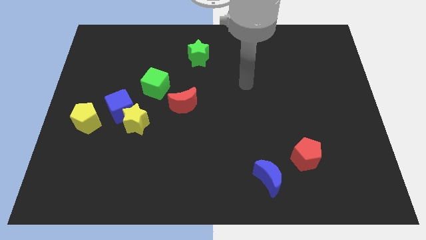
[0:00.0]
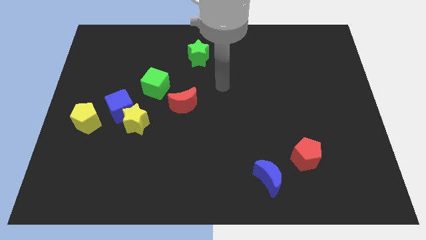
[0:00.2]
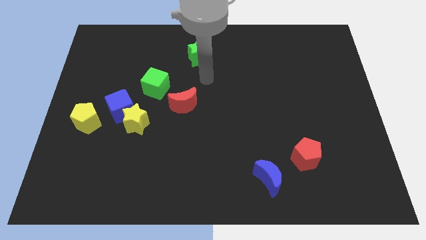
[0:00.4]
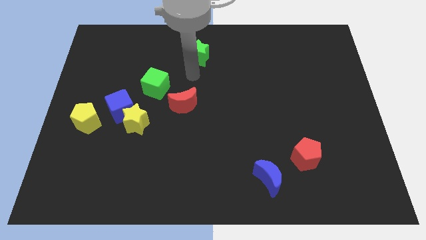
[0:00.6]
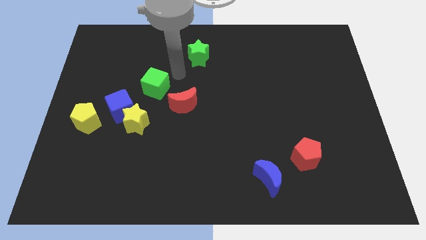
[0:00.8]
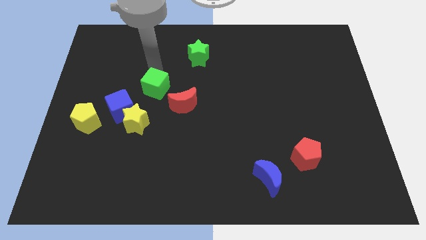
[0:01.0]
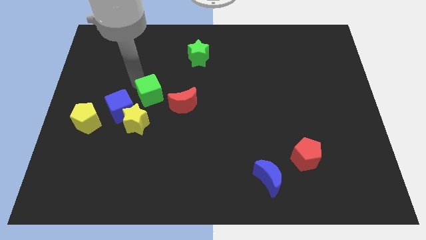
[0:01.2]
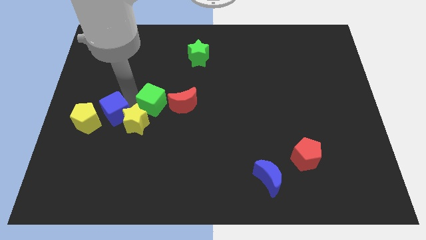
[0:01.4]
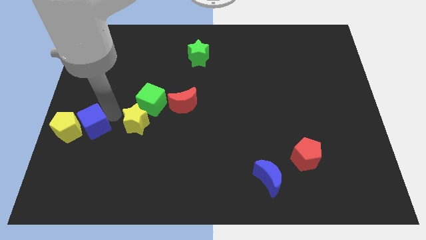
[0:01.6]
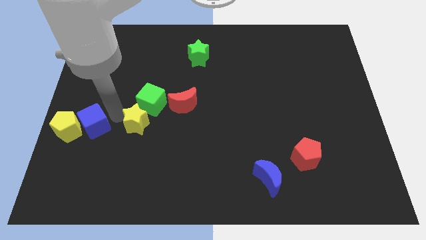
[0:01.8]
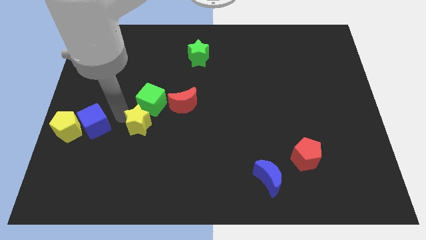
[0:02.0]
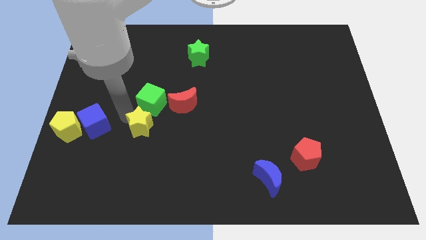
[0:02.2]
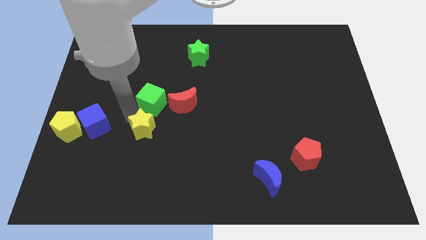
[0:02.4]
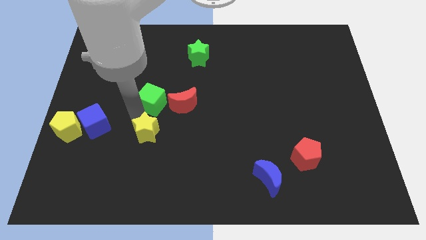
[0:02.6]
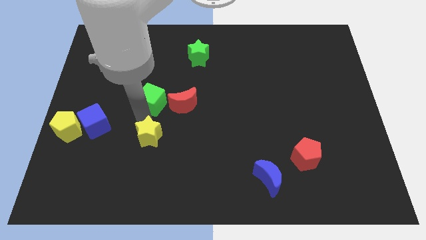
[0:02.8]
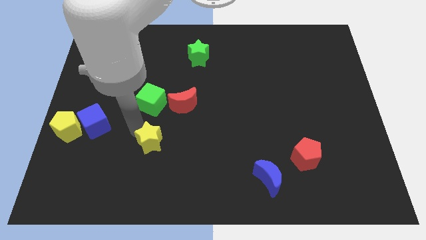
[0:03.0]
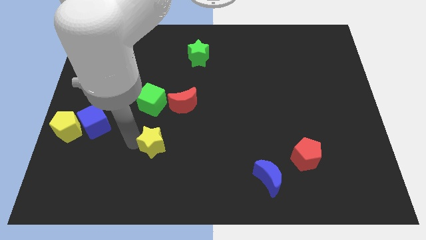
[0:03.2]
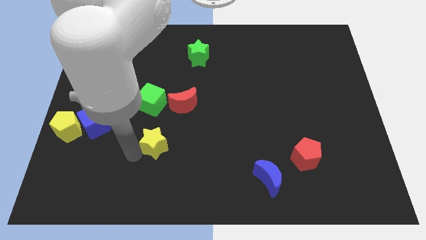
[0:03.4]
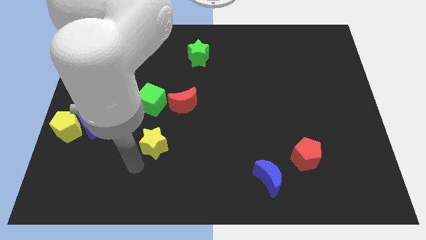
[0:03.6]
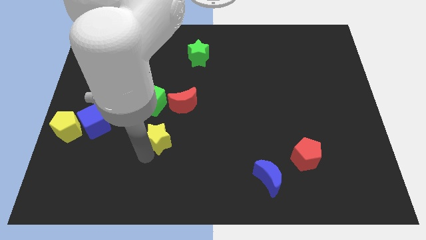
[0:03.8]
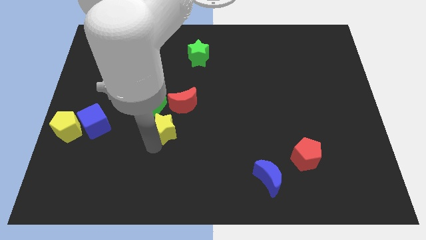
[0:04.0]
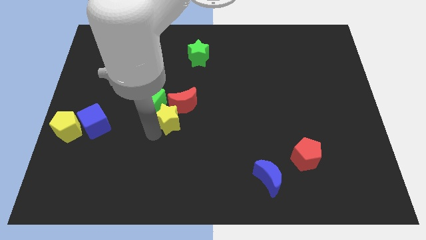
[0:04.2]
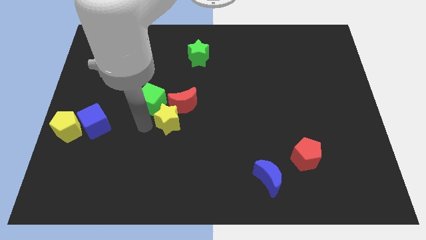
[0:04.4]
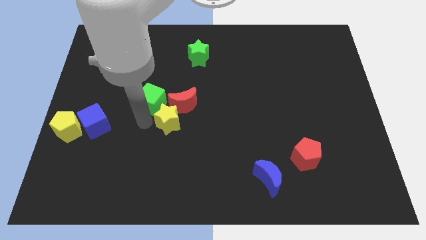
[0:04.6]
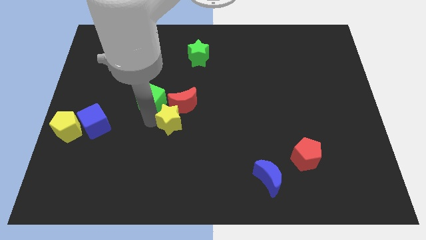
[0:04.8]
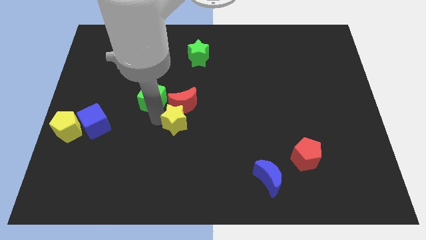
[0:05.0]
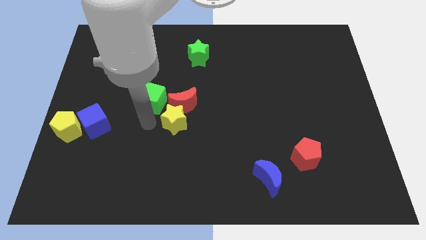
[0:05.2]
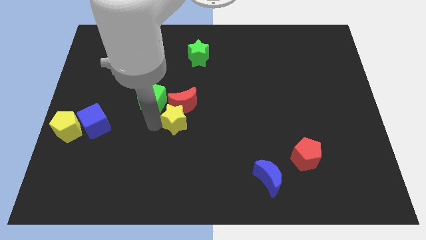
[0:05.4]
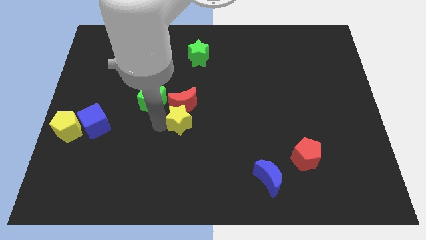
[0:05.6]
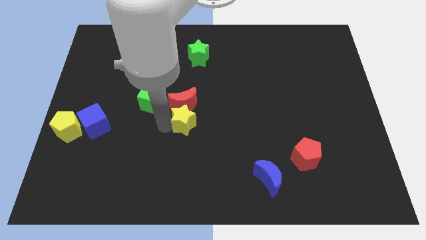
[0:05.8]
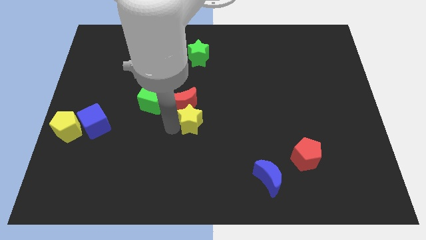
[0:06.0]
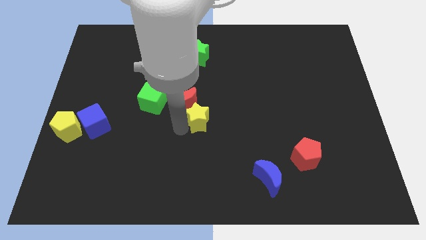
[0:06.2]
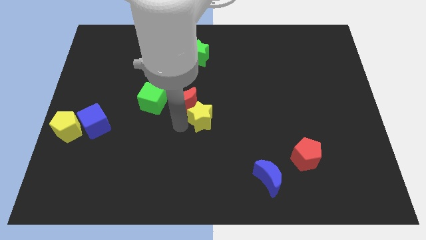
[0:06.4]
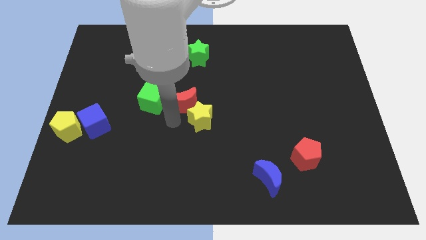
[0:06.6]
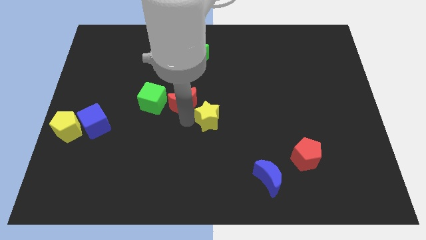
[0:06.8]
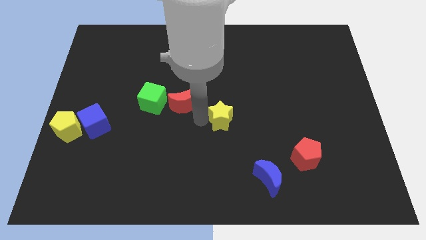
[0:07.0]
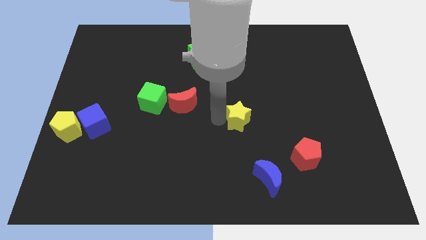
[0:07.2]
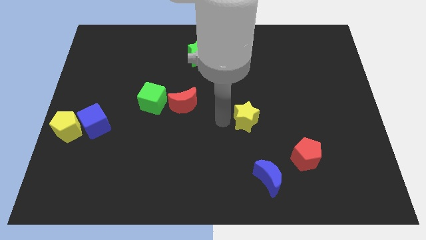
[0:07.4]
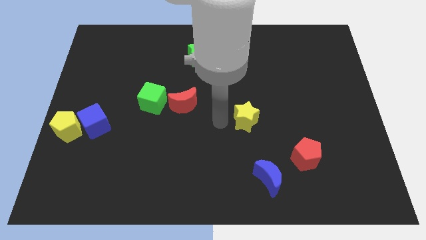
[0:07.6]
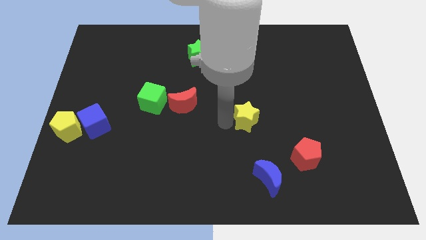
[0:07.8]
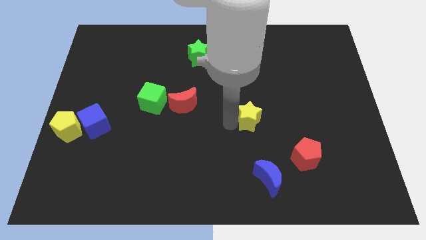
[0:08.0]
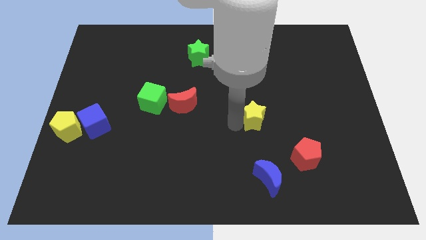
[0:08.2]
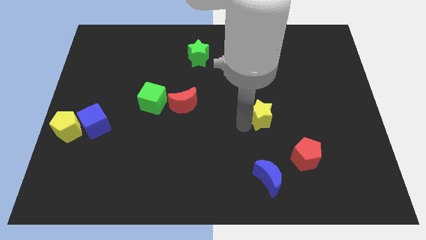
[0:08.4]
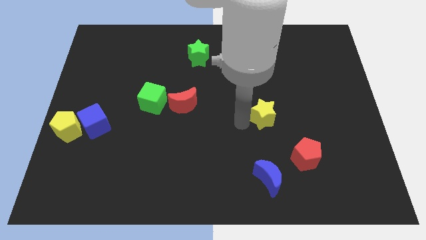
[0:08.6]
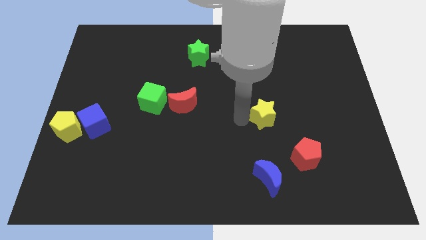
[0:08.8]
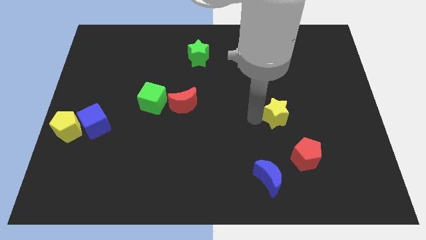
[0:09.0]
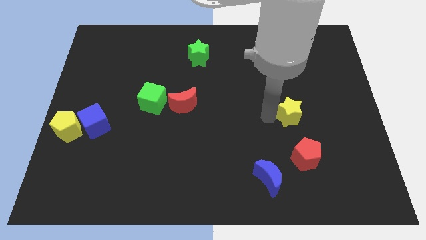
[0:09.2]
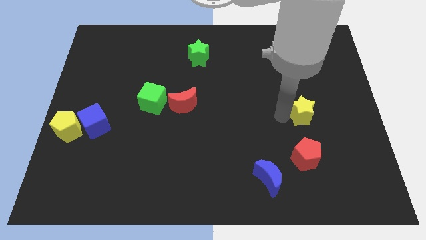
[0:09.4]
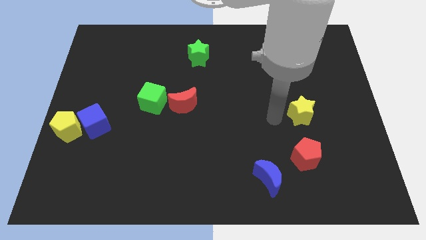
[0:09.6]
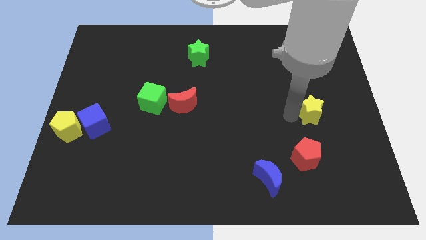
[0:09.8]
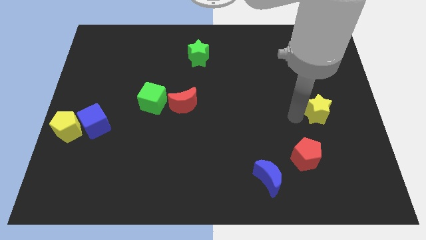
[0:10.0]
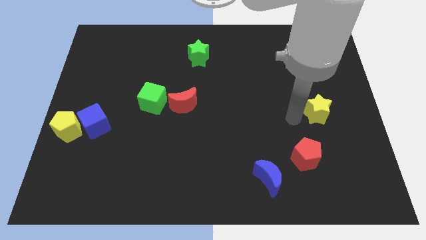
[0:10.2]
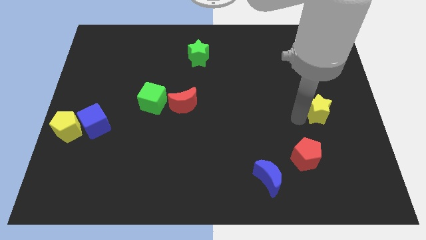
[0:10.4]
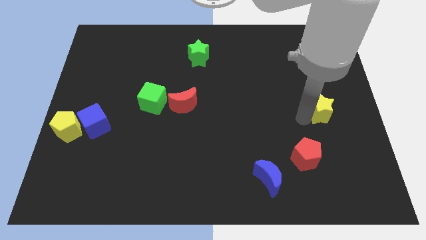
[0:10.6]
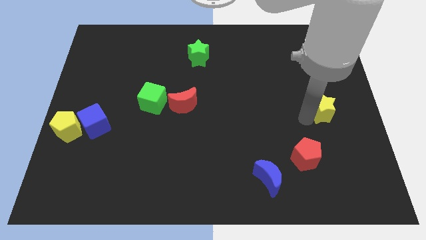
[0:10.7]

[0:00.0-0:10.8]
move the yellow star to the right side of the board
